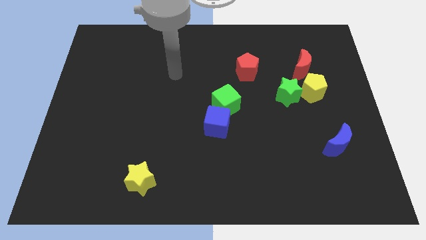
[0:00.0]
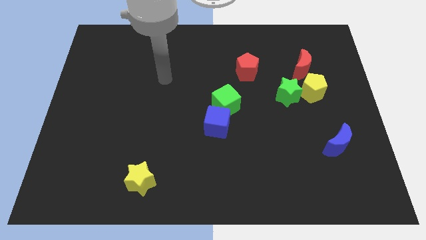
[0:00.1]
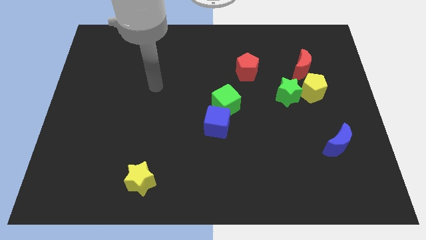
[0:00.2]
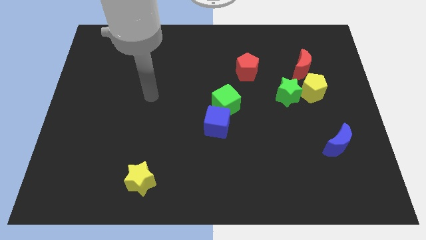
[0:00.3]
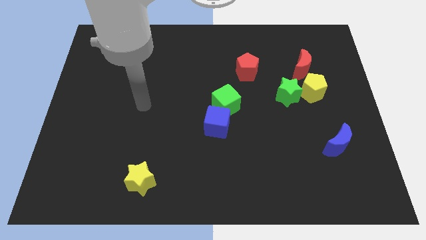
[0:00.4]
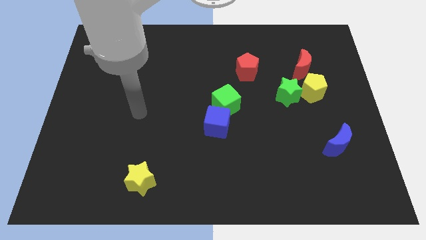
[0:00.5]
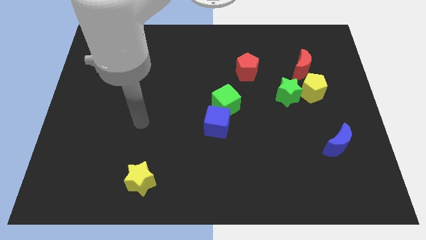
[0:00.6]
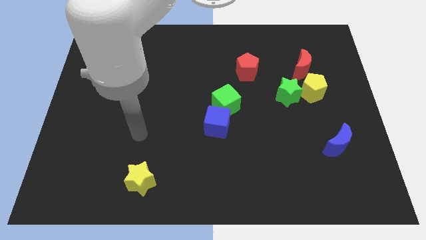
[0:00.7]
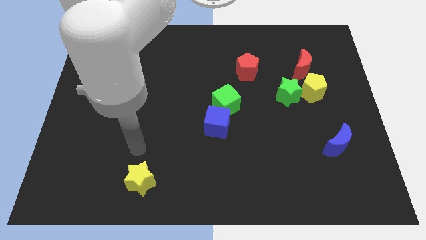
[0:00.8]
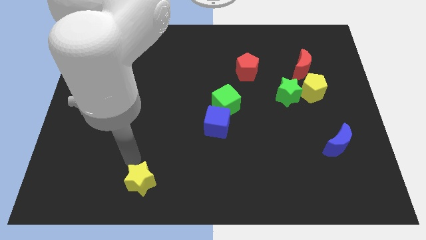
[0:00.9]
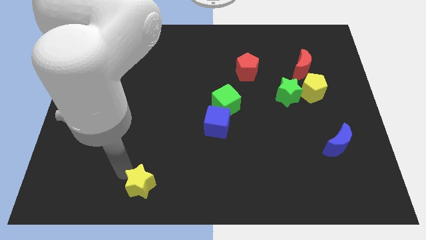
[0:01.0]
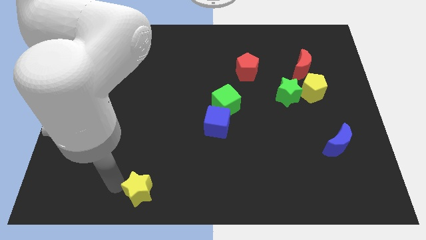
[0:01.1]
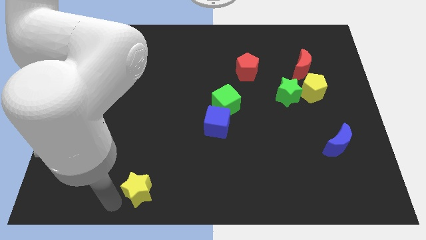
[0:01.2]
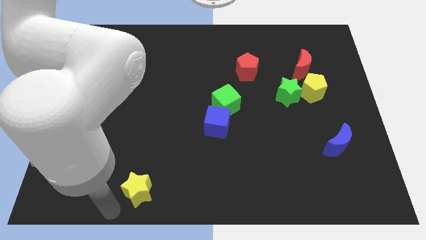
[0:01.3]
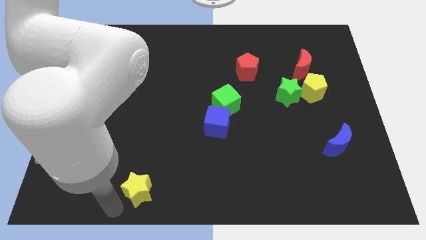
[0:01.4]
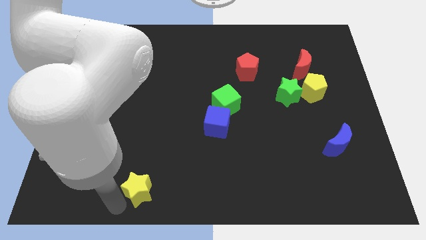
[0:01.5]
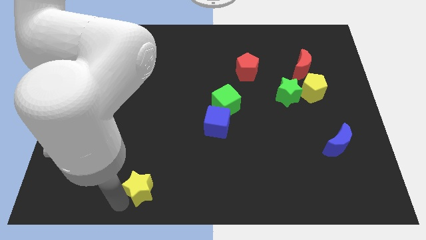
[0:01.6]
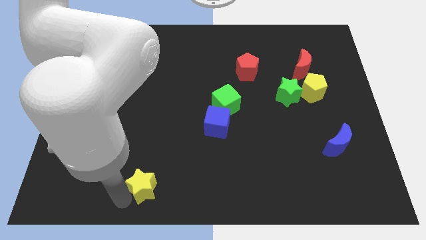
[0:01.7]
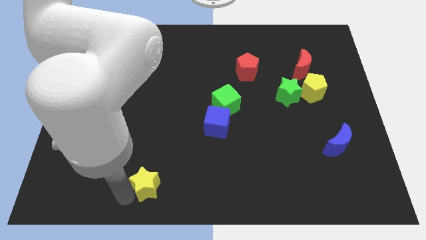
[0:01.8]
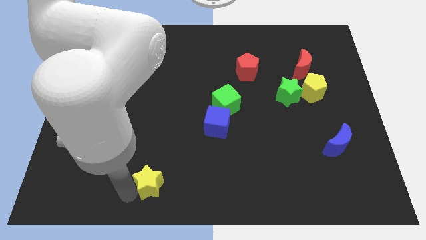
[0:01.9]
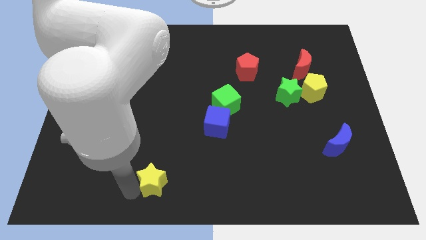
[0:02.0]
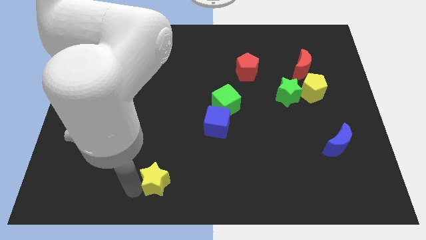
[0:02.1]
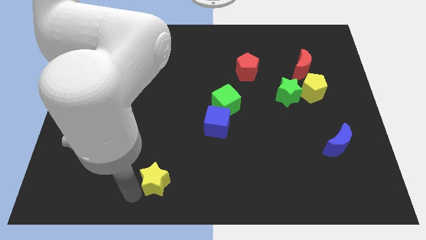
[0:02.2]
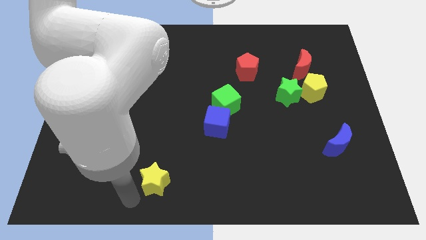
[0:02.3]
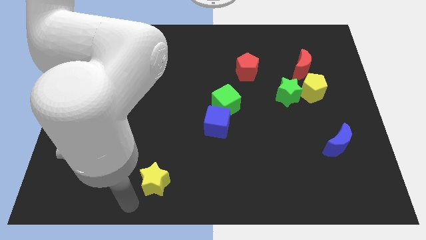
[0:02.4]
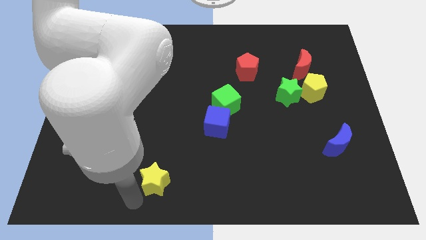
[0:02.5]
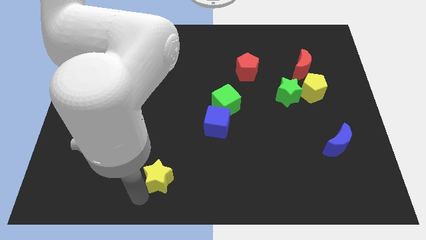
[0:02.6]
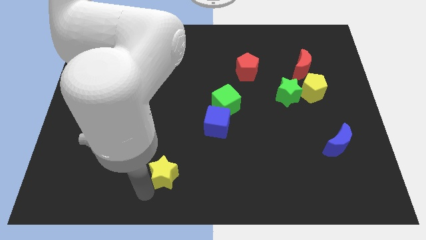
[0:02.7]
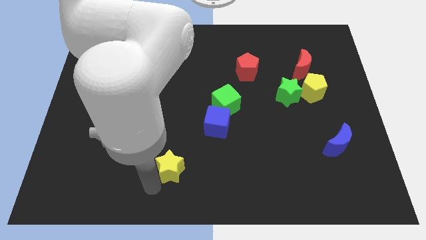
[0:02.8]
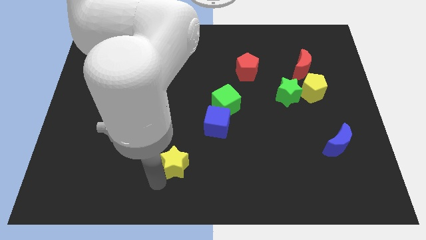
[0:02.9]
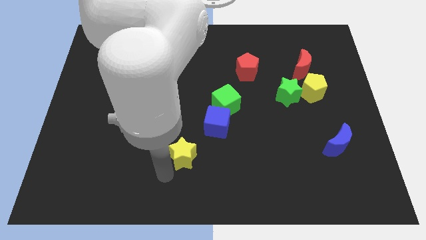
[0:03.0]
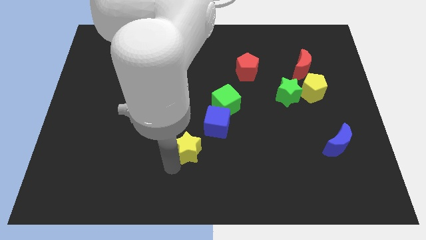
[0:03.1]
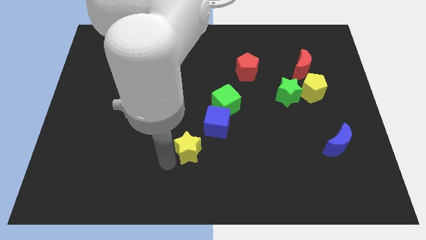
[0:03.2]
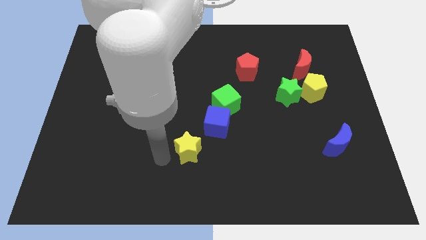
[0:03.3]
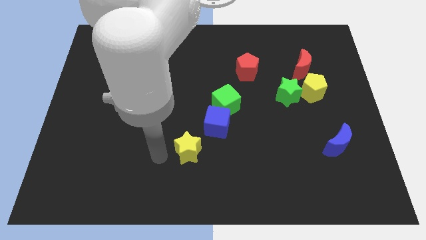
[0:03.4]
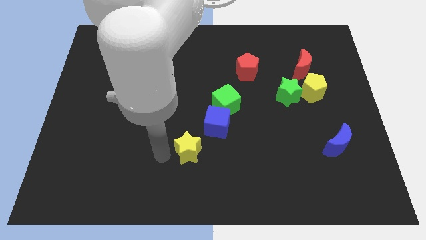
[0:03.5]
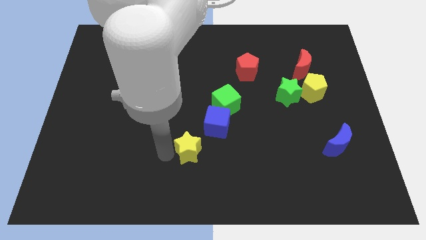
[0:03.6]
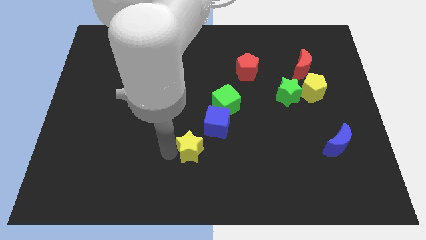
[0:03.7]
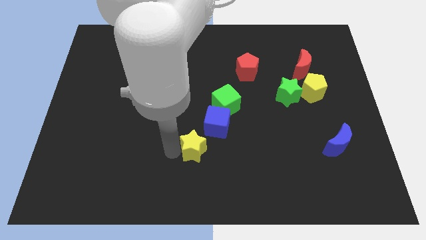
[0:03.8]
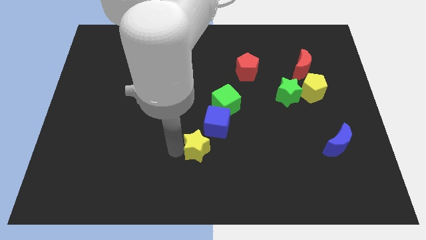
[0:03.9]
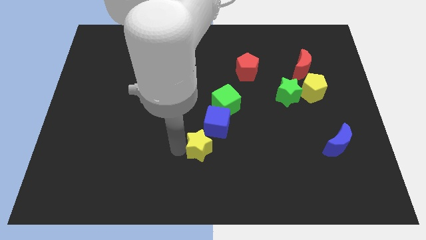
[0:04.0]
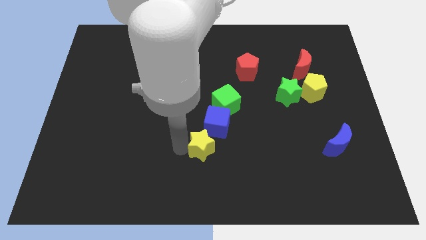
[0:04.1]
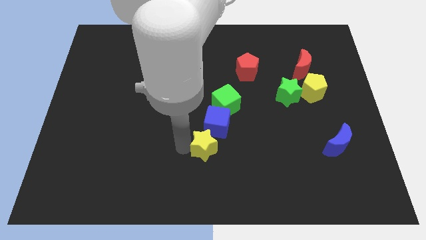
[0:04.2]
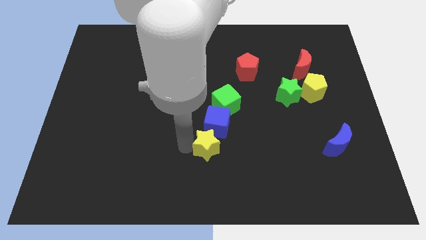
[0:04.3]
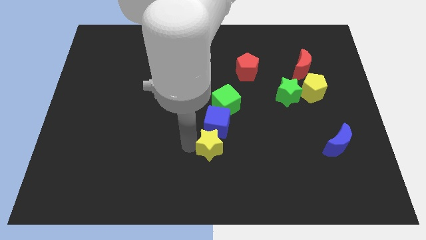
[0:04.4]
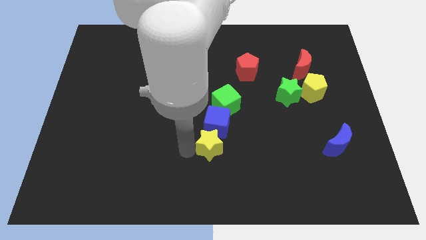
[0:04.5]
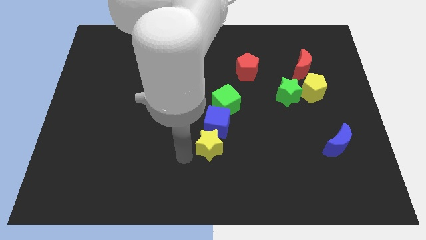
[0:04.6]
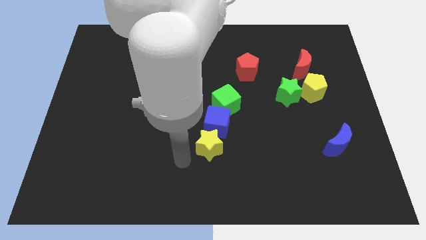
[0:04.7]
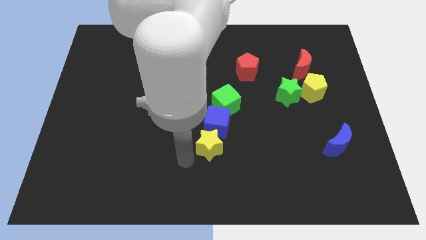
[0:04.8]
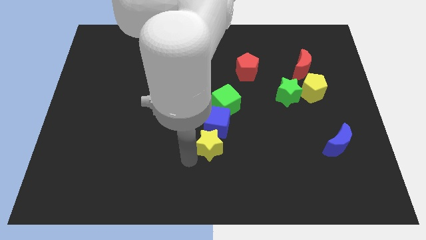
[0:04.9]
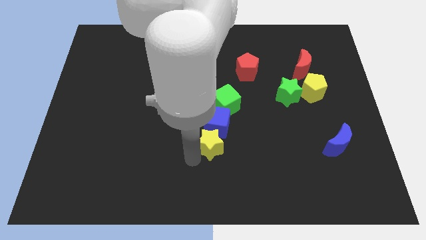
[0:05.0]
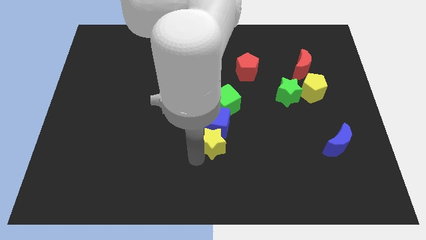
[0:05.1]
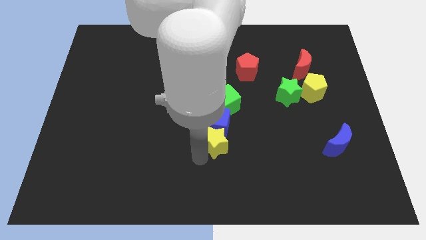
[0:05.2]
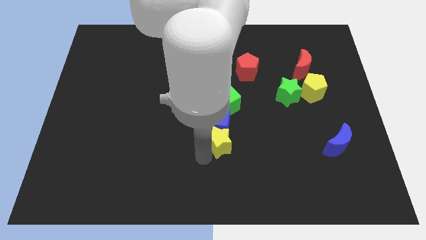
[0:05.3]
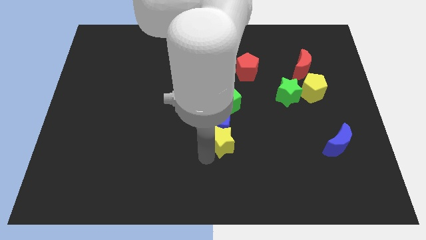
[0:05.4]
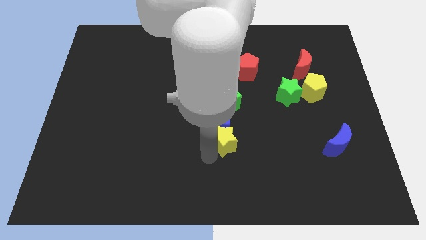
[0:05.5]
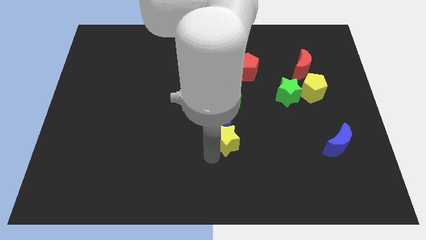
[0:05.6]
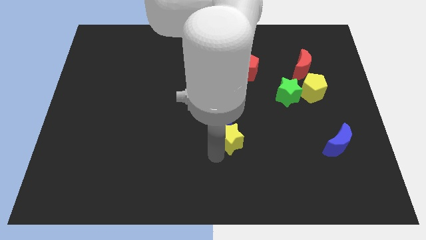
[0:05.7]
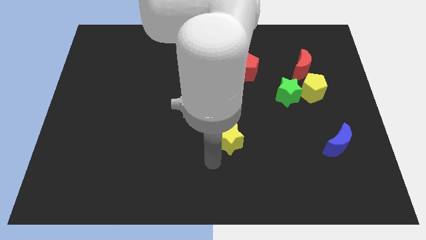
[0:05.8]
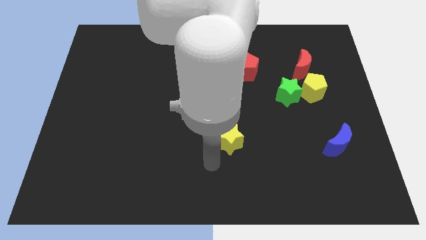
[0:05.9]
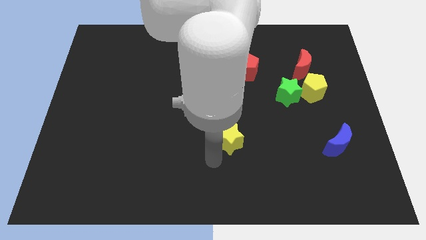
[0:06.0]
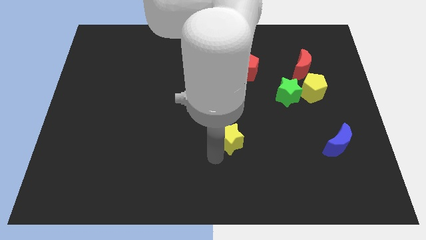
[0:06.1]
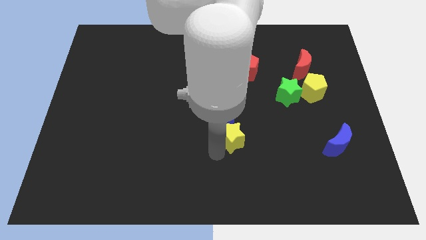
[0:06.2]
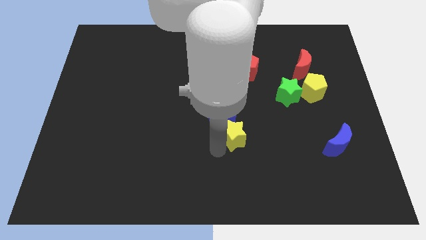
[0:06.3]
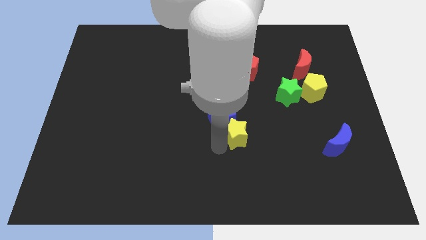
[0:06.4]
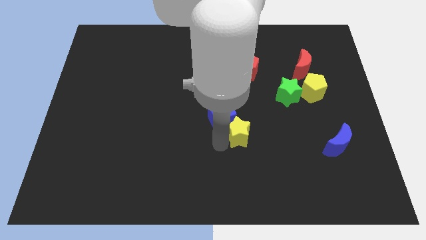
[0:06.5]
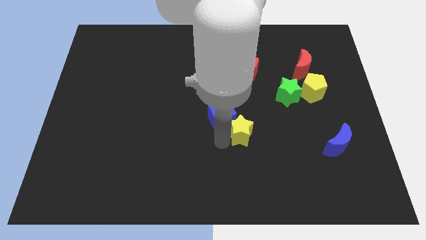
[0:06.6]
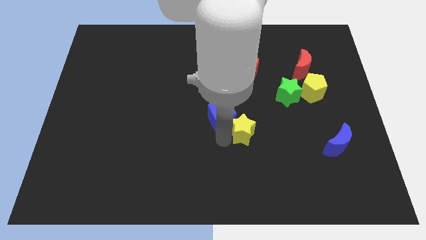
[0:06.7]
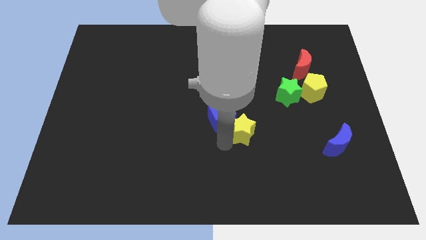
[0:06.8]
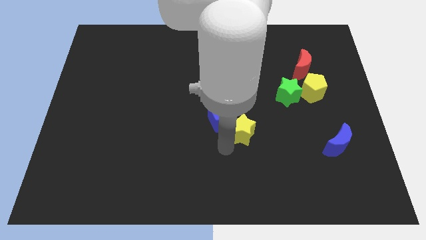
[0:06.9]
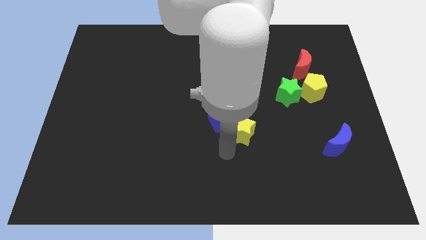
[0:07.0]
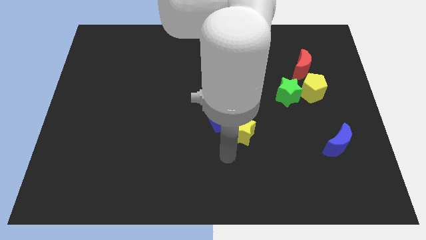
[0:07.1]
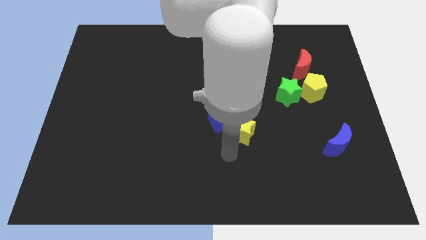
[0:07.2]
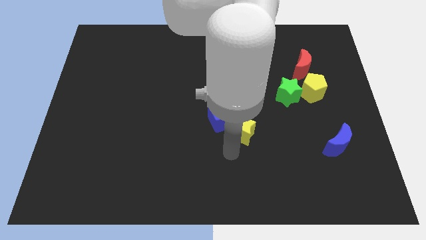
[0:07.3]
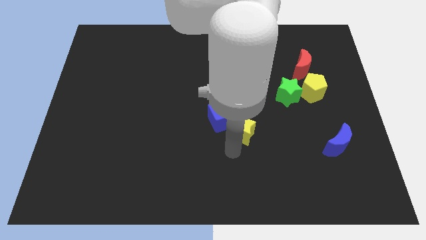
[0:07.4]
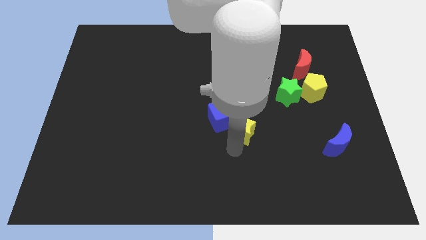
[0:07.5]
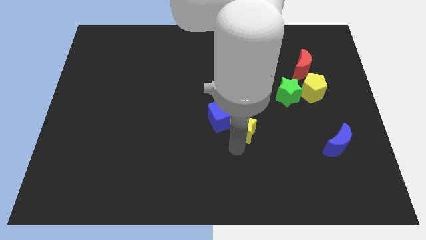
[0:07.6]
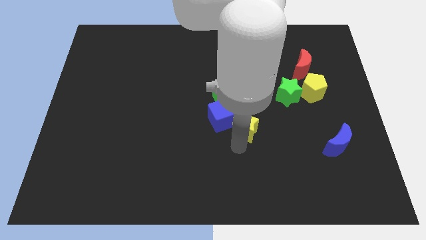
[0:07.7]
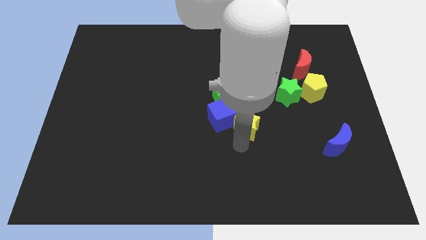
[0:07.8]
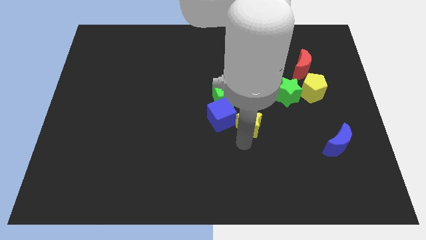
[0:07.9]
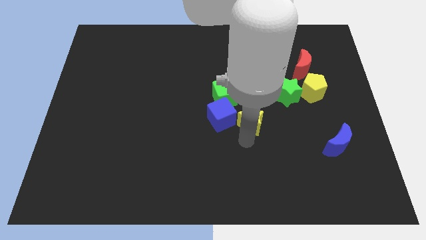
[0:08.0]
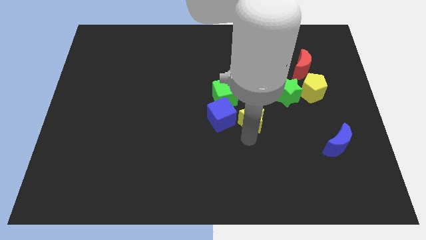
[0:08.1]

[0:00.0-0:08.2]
slide the yellow star below the red pentagon
